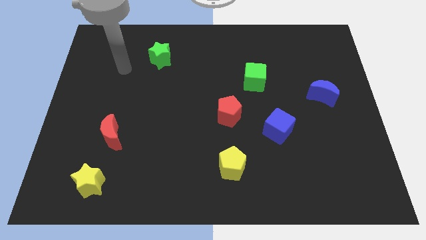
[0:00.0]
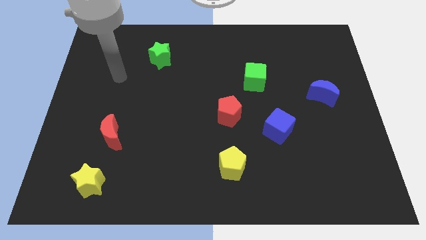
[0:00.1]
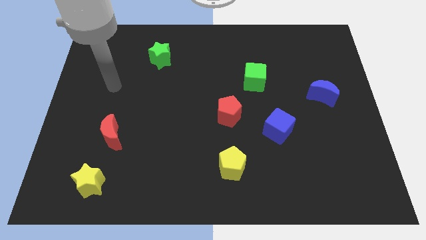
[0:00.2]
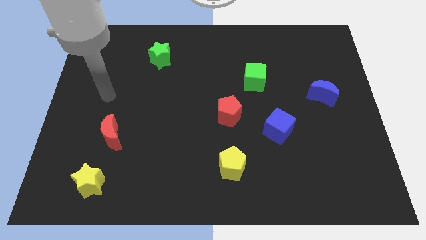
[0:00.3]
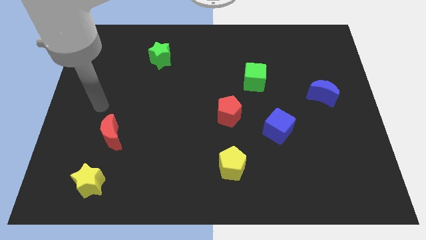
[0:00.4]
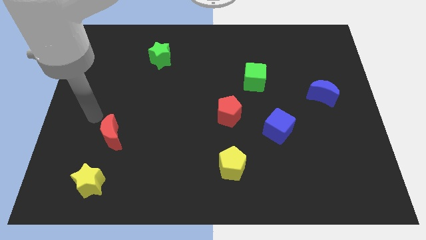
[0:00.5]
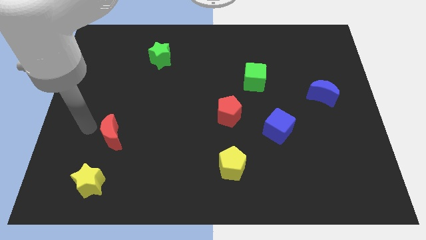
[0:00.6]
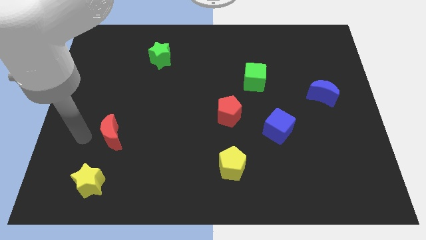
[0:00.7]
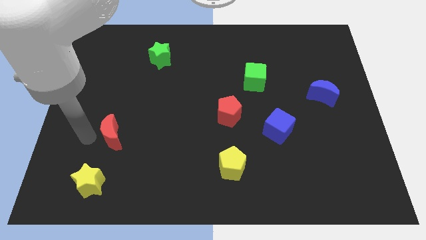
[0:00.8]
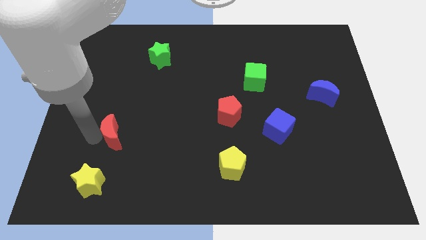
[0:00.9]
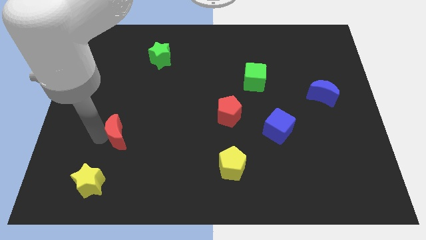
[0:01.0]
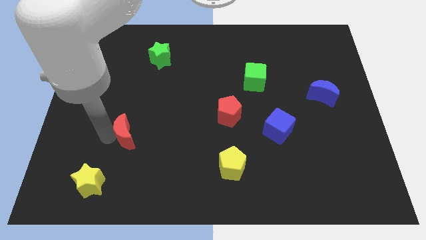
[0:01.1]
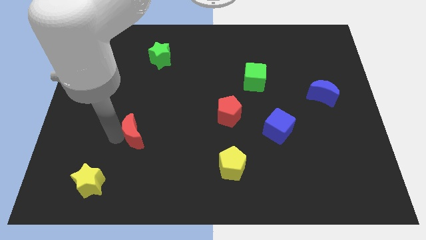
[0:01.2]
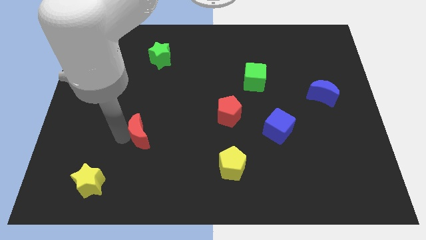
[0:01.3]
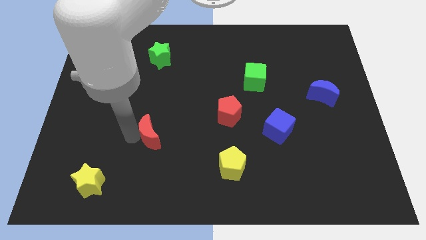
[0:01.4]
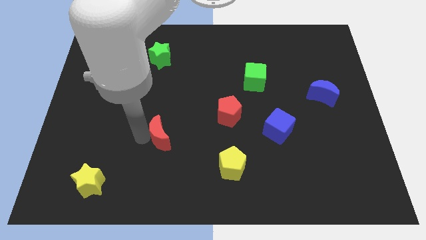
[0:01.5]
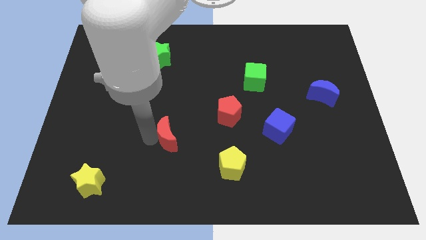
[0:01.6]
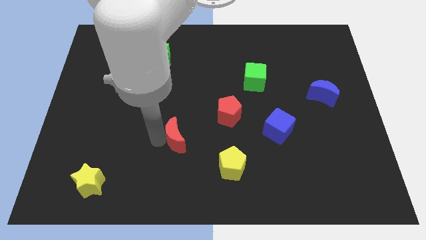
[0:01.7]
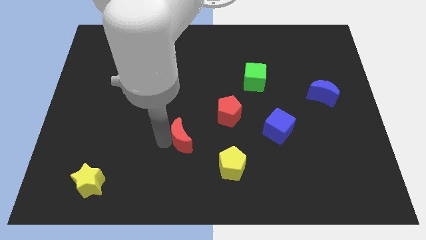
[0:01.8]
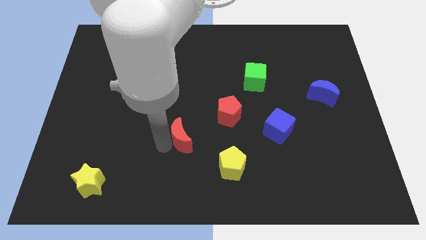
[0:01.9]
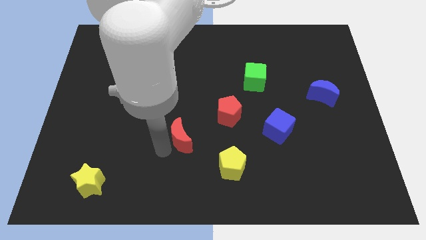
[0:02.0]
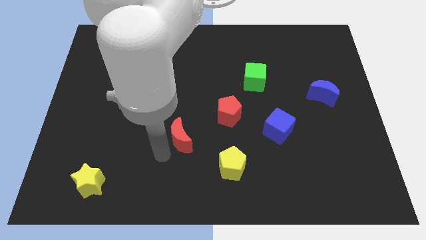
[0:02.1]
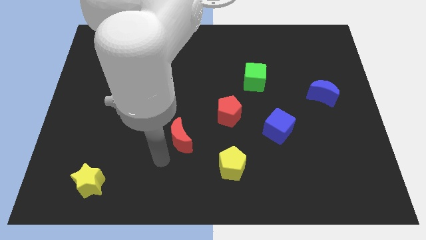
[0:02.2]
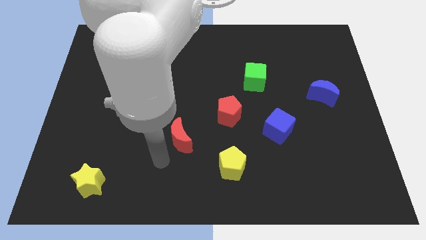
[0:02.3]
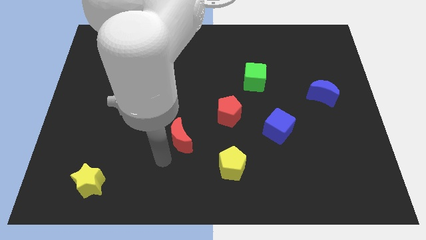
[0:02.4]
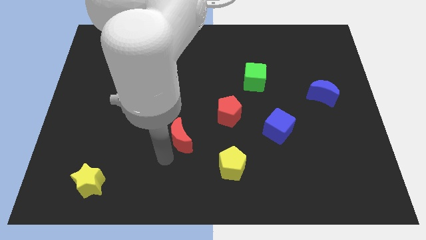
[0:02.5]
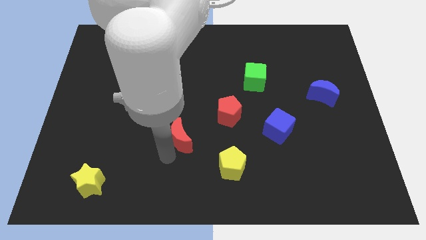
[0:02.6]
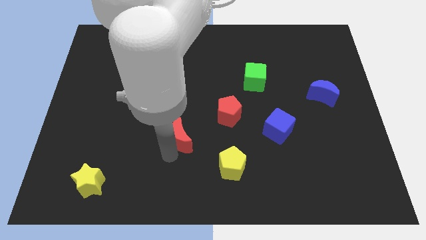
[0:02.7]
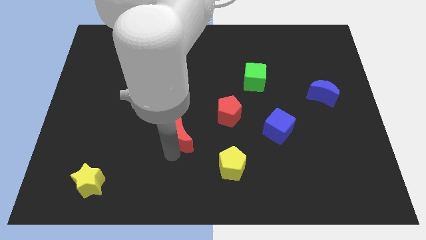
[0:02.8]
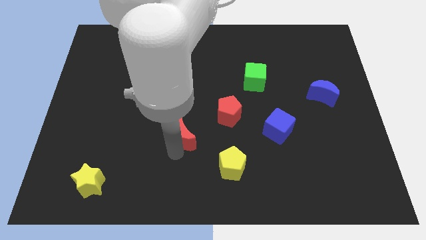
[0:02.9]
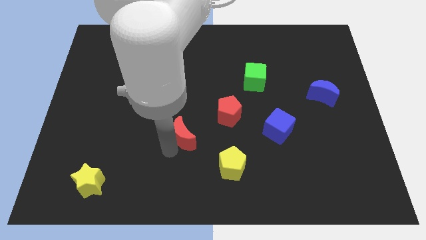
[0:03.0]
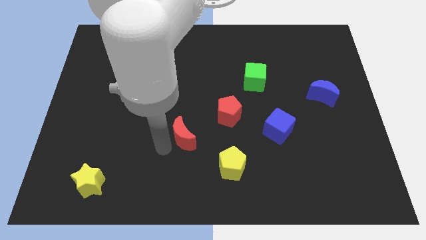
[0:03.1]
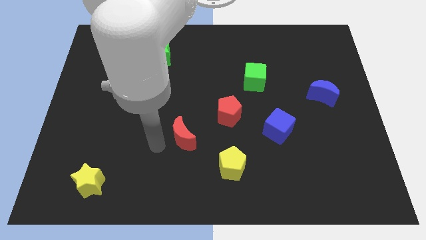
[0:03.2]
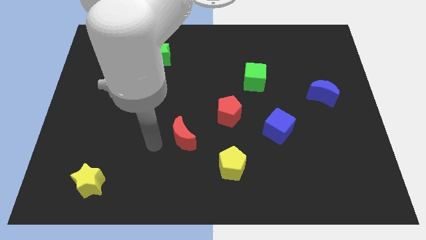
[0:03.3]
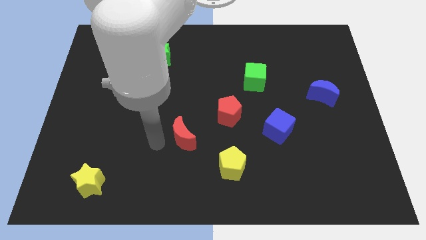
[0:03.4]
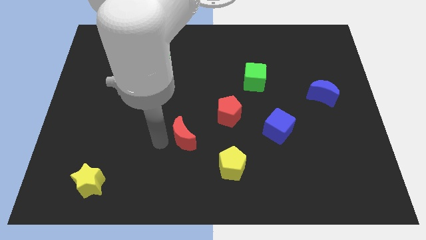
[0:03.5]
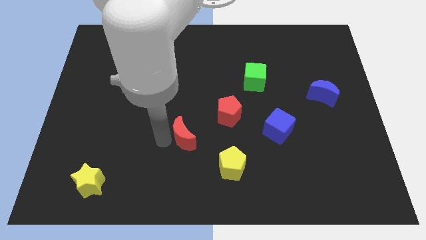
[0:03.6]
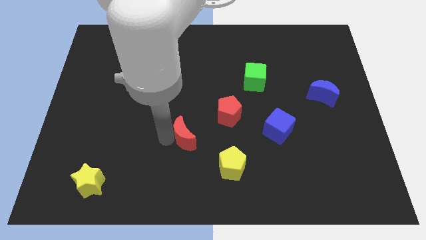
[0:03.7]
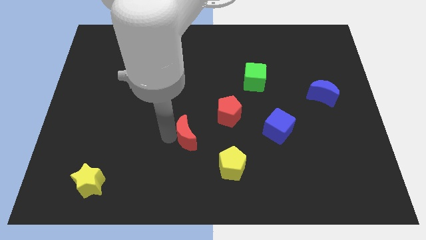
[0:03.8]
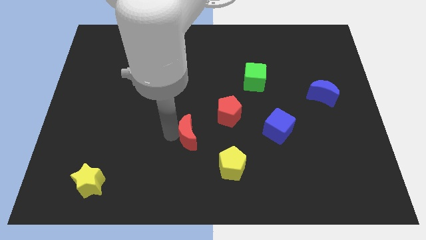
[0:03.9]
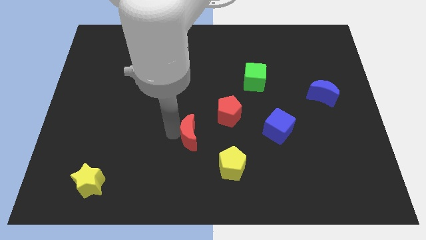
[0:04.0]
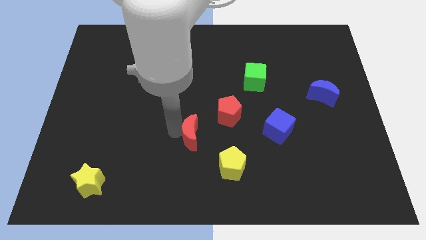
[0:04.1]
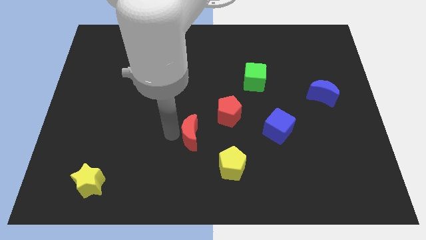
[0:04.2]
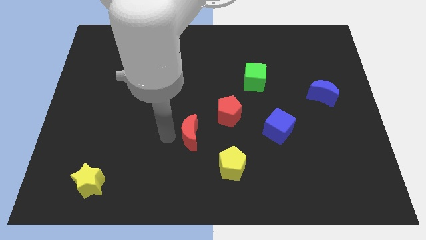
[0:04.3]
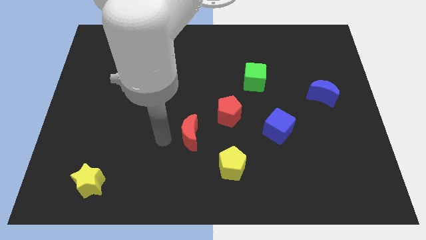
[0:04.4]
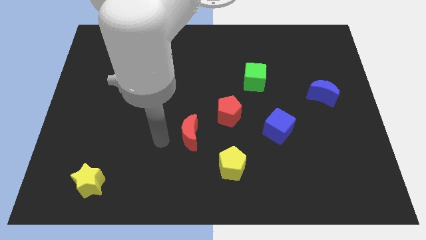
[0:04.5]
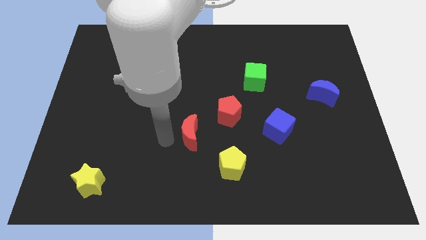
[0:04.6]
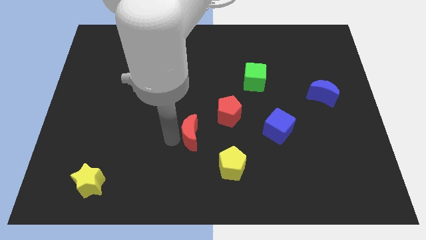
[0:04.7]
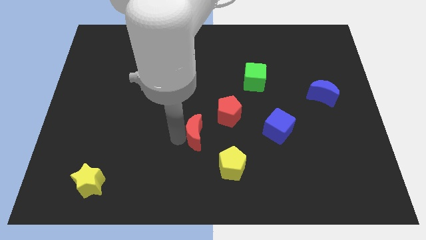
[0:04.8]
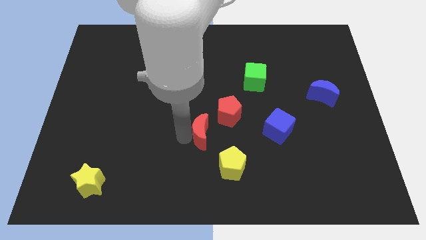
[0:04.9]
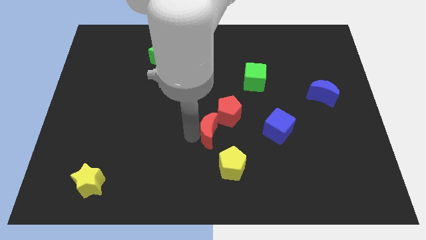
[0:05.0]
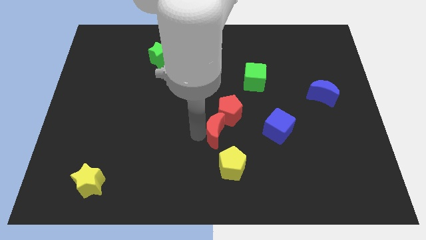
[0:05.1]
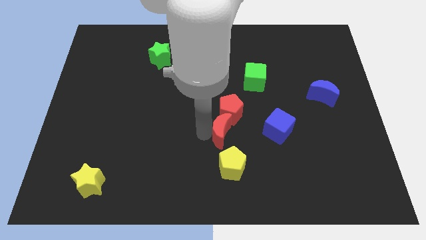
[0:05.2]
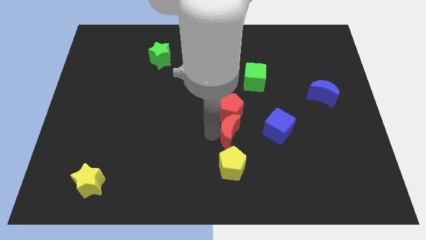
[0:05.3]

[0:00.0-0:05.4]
put the red moon to the bottom right side of the red pentagon

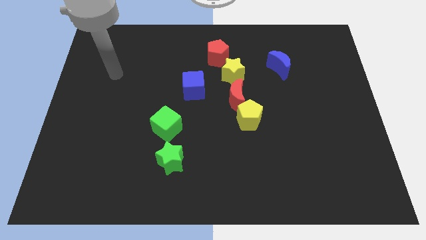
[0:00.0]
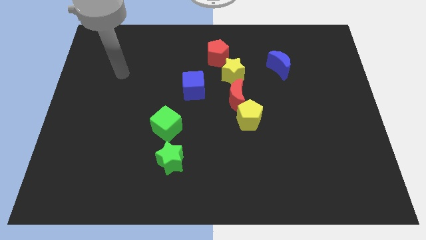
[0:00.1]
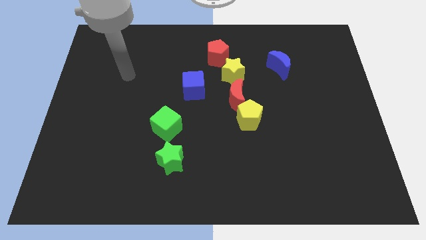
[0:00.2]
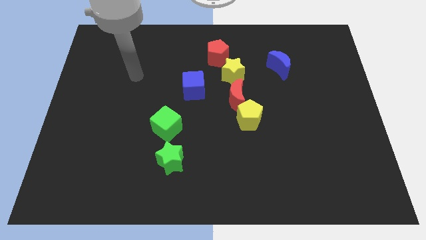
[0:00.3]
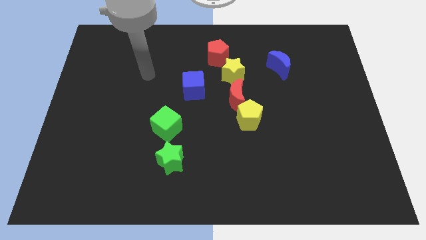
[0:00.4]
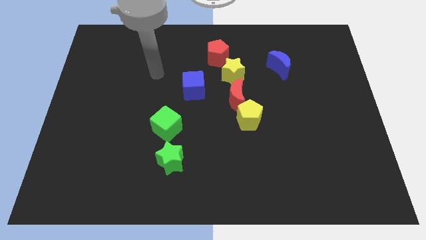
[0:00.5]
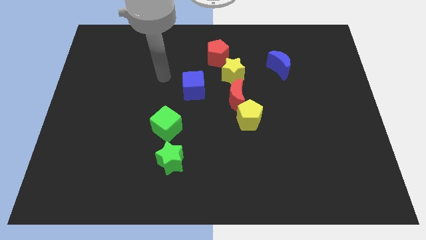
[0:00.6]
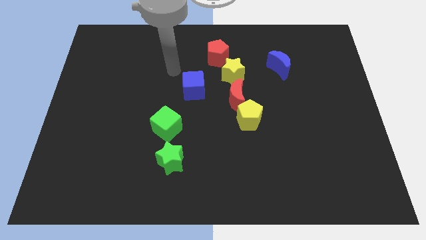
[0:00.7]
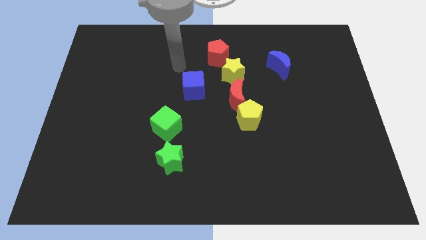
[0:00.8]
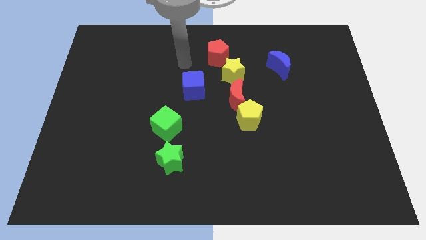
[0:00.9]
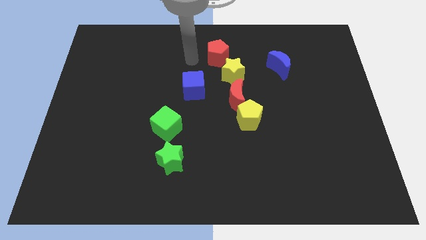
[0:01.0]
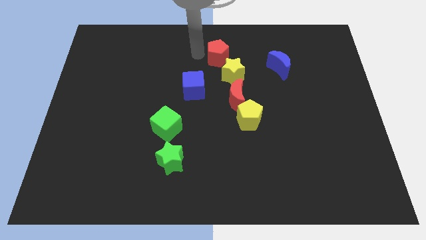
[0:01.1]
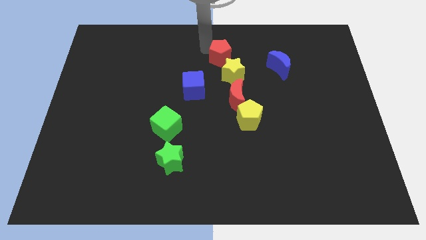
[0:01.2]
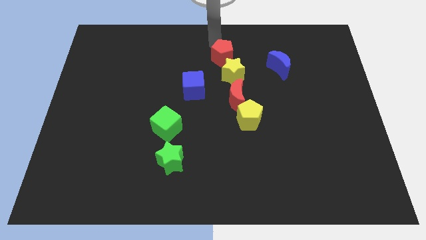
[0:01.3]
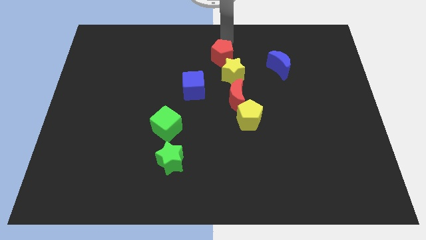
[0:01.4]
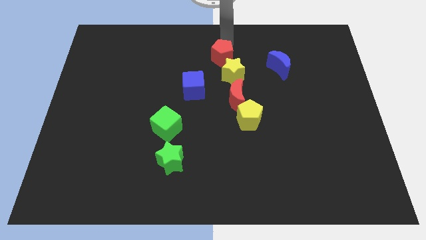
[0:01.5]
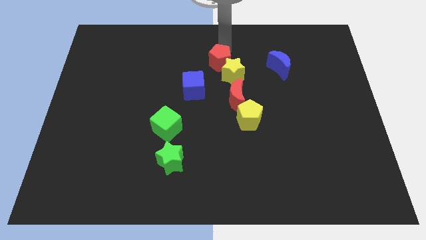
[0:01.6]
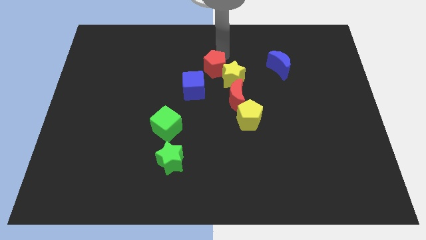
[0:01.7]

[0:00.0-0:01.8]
put the red pentagon diagonally up and to the left of the red moon
